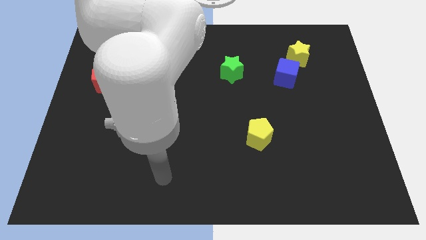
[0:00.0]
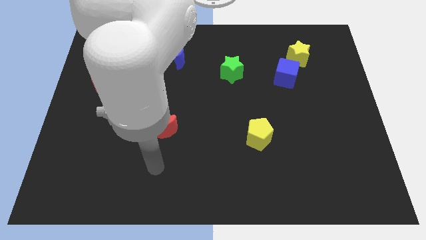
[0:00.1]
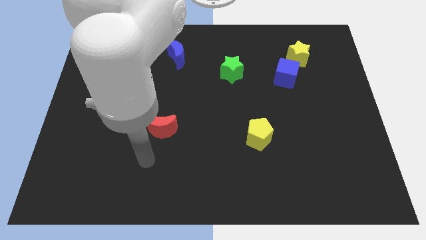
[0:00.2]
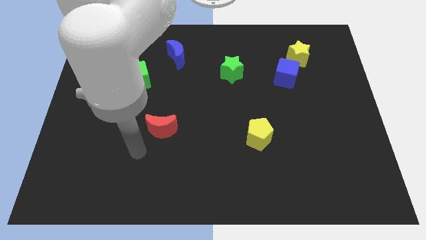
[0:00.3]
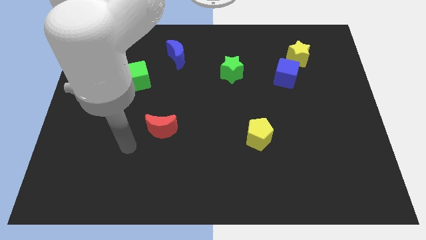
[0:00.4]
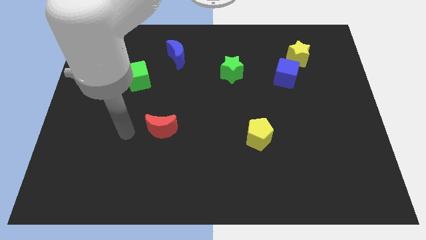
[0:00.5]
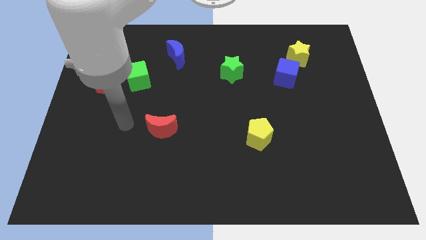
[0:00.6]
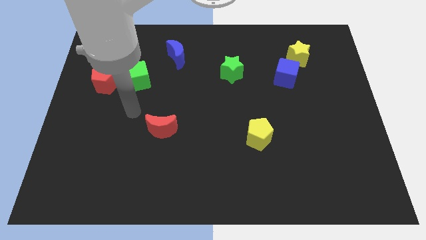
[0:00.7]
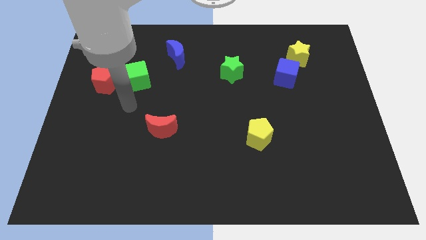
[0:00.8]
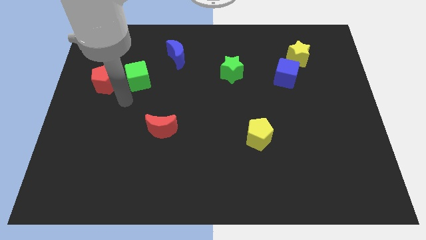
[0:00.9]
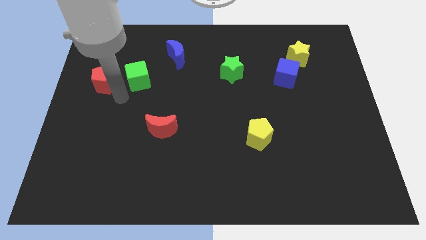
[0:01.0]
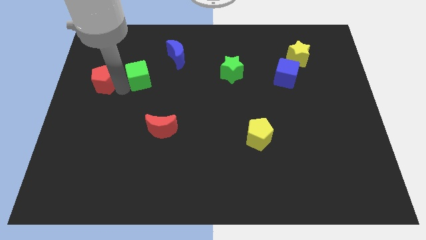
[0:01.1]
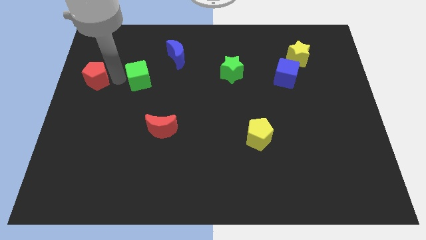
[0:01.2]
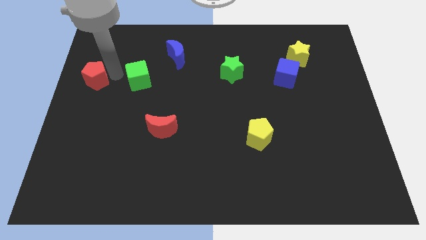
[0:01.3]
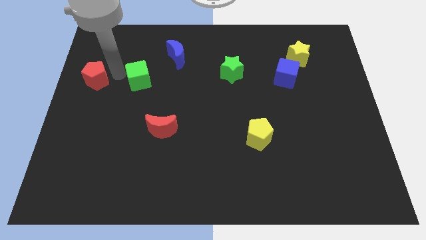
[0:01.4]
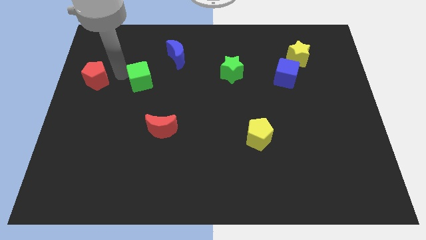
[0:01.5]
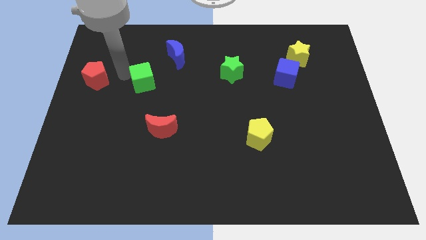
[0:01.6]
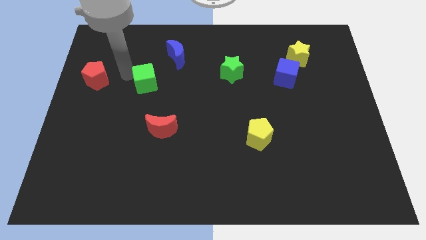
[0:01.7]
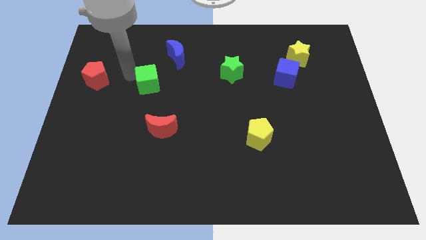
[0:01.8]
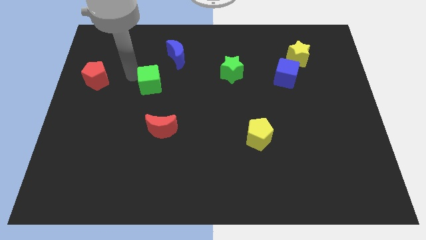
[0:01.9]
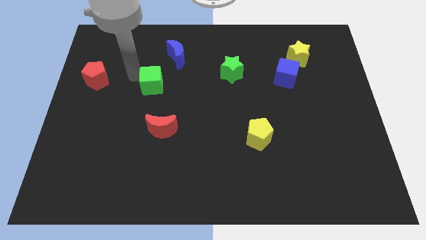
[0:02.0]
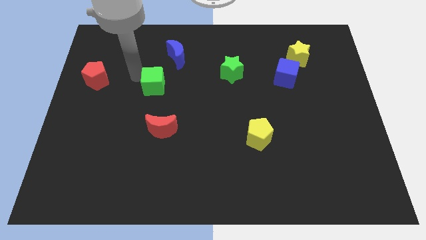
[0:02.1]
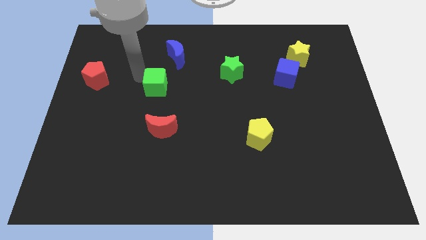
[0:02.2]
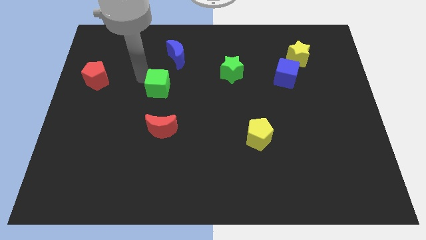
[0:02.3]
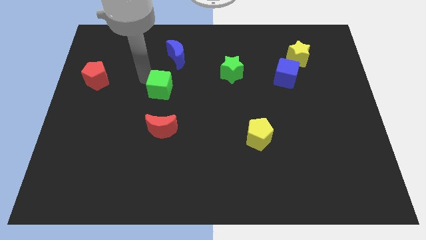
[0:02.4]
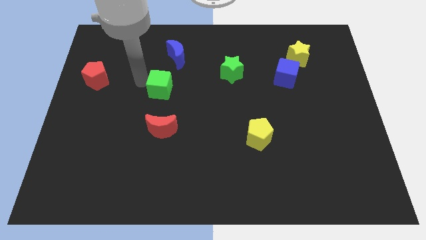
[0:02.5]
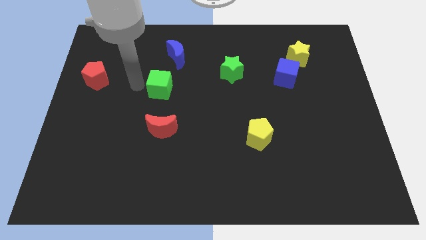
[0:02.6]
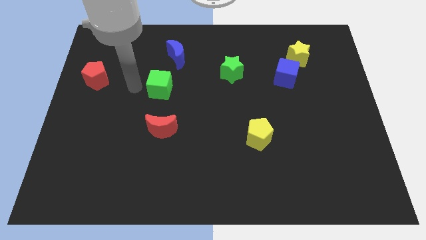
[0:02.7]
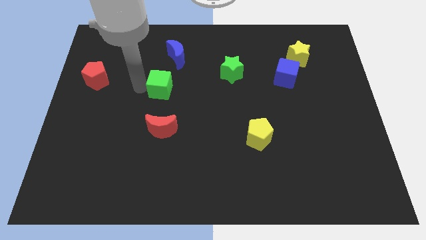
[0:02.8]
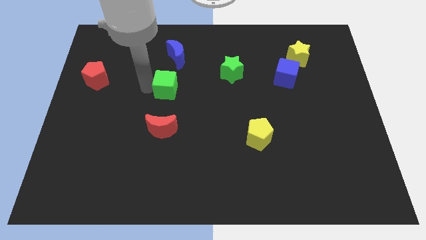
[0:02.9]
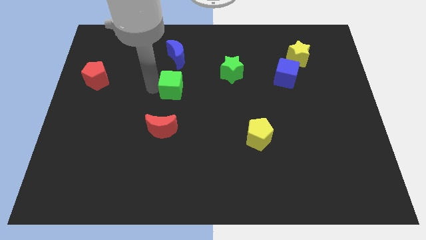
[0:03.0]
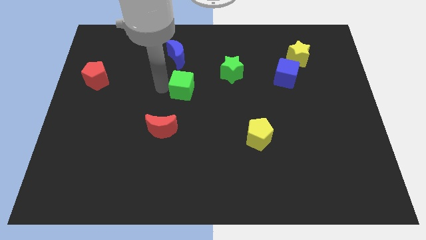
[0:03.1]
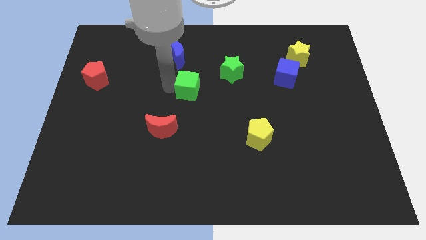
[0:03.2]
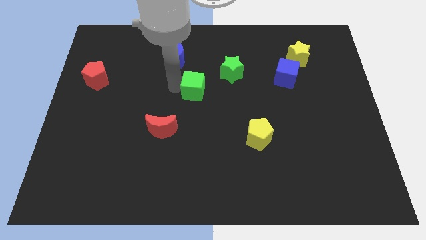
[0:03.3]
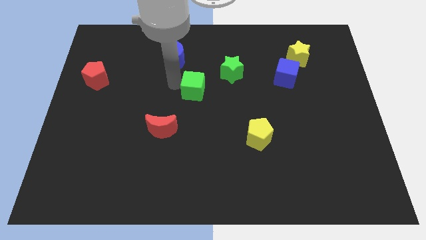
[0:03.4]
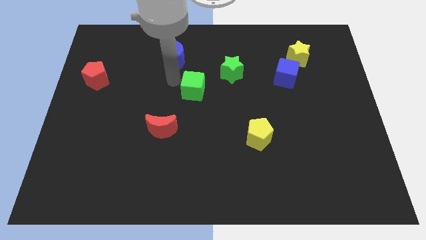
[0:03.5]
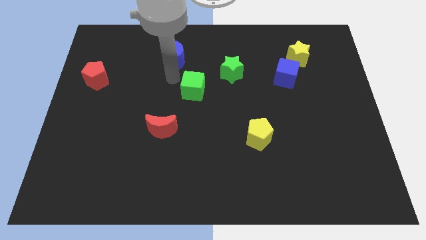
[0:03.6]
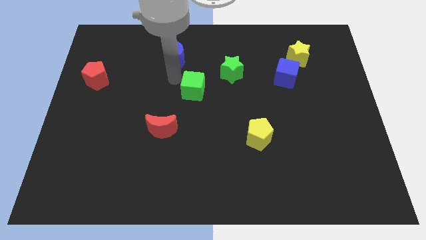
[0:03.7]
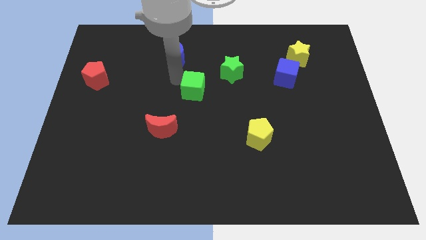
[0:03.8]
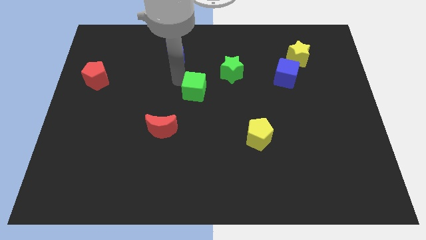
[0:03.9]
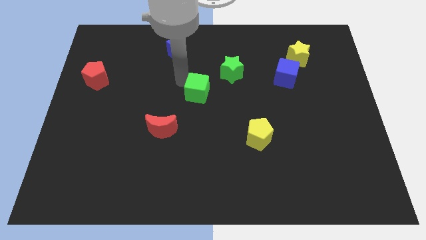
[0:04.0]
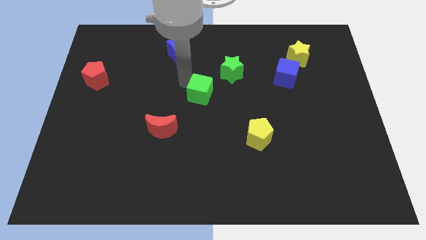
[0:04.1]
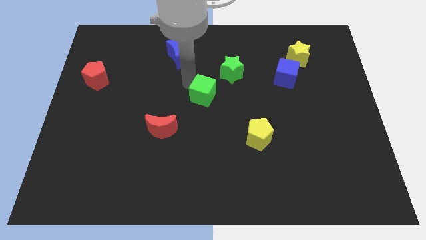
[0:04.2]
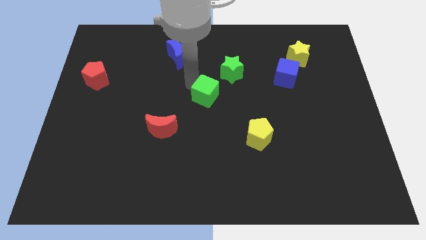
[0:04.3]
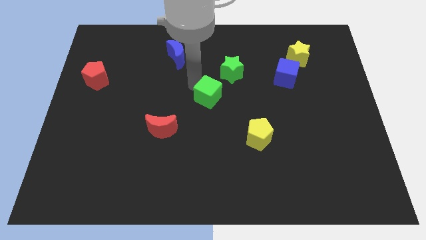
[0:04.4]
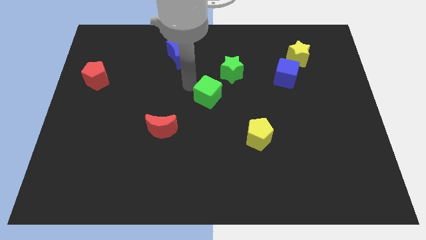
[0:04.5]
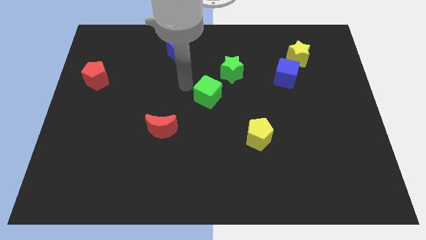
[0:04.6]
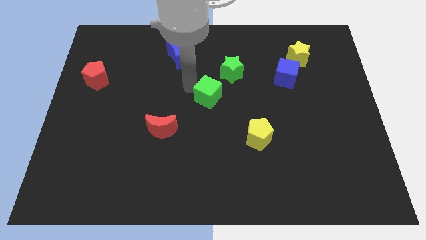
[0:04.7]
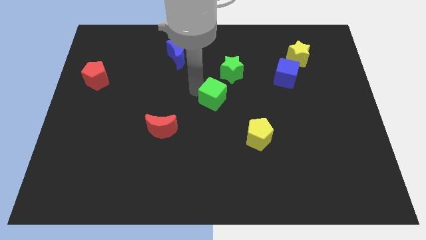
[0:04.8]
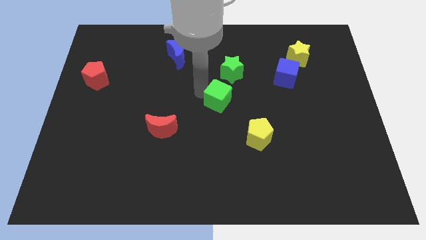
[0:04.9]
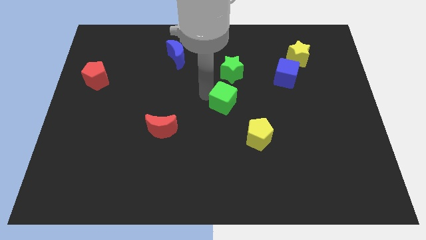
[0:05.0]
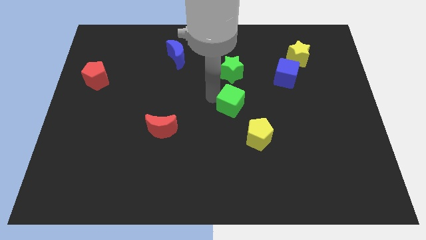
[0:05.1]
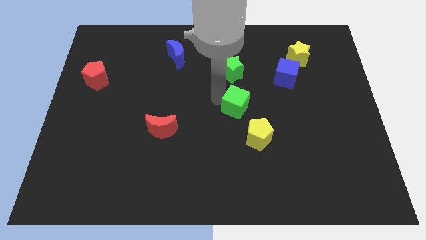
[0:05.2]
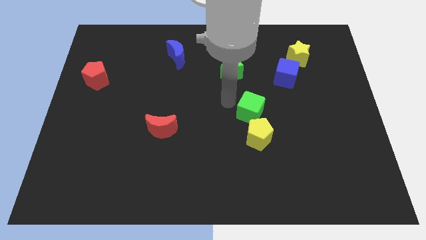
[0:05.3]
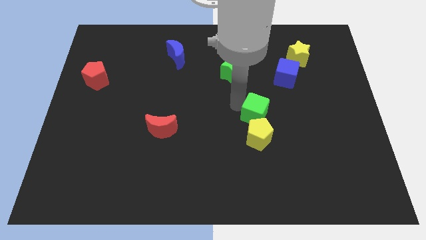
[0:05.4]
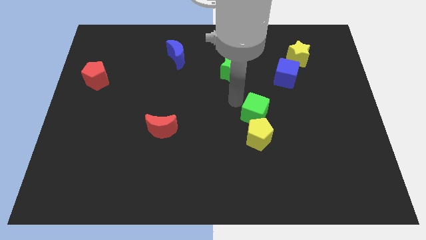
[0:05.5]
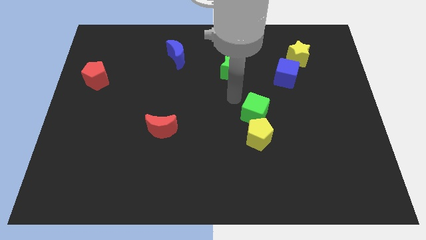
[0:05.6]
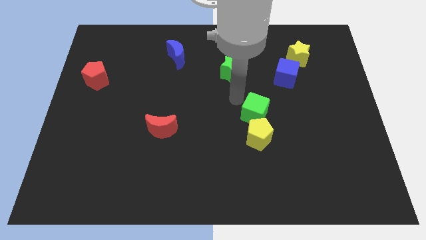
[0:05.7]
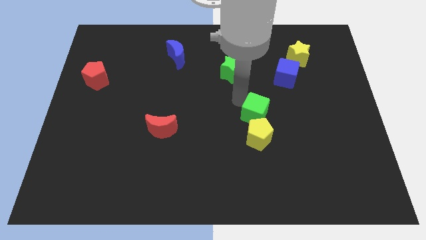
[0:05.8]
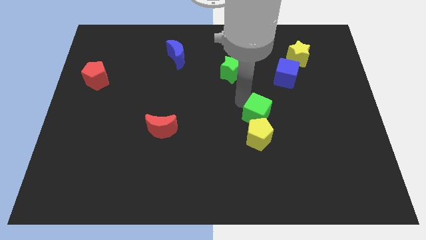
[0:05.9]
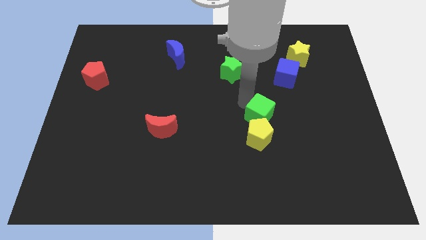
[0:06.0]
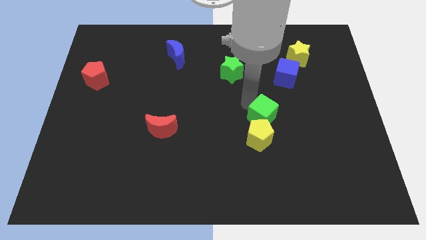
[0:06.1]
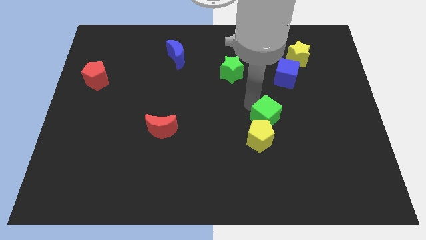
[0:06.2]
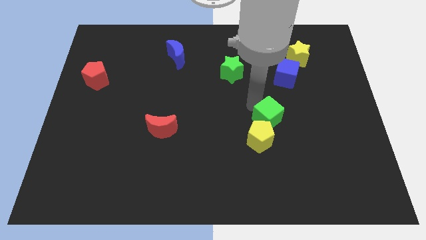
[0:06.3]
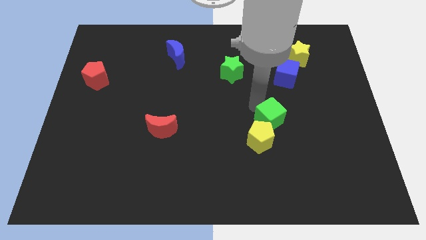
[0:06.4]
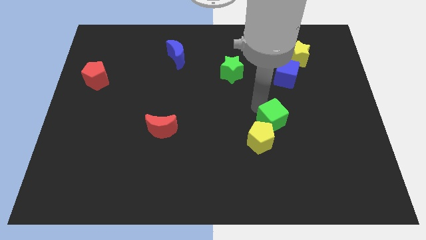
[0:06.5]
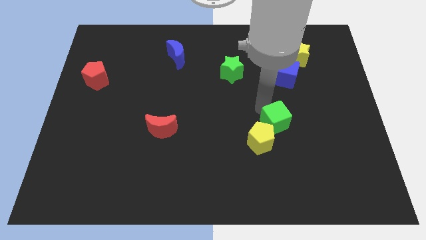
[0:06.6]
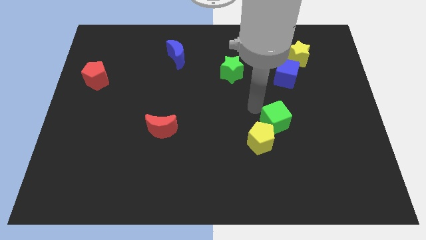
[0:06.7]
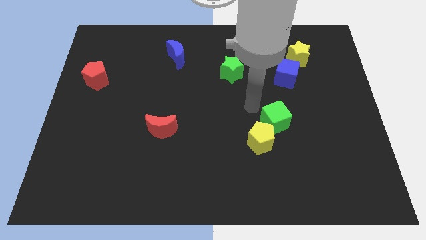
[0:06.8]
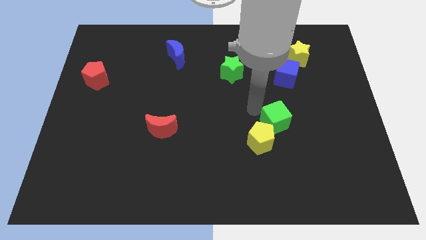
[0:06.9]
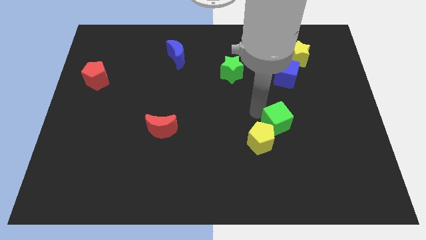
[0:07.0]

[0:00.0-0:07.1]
put the green cube to the right of the yellow pentagon

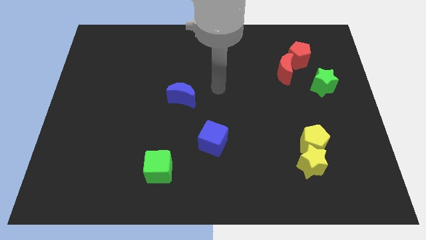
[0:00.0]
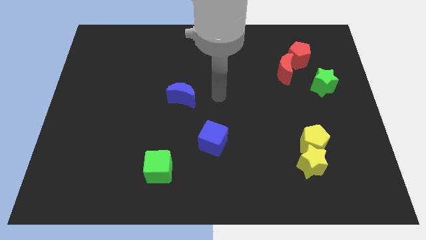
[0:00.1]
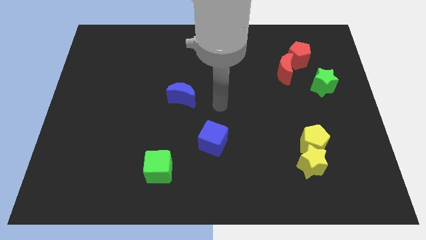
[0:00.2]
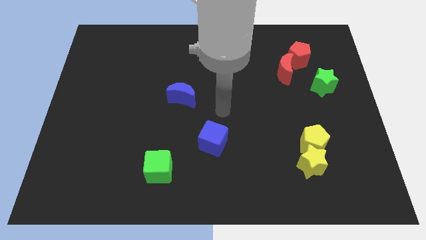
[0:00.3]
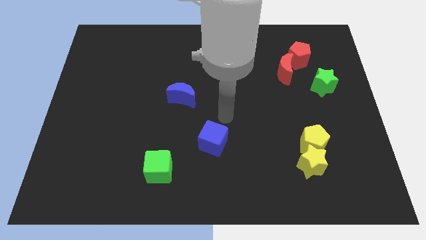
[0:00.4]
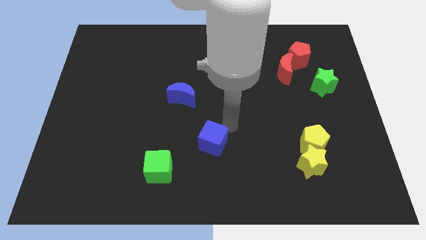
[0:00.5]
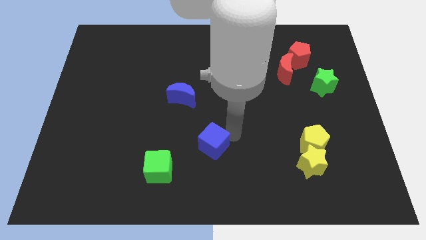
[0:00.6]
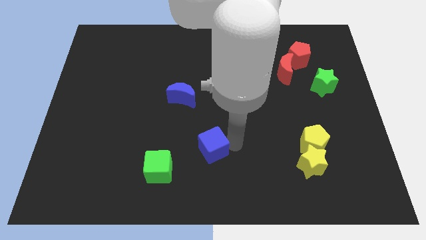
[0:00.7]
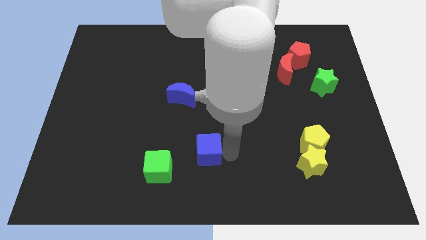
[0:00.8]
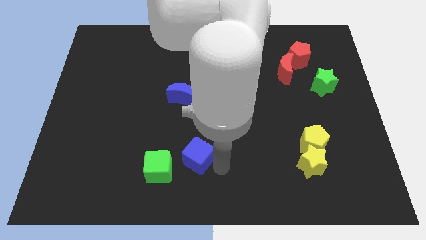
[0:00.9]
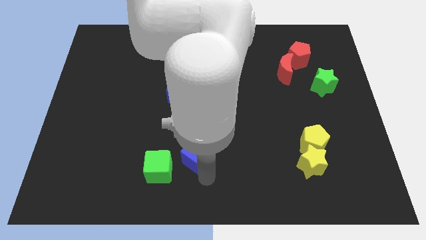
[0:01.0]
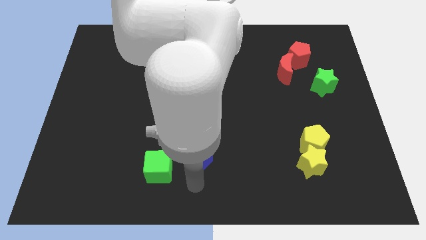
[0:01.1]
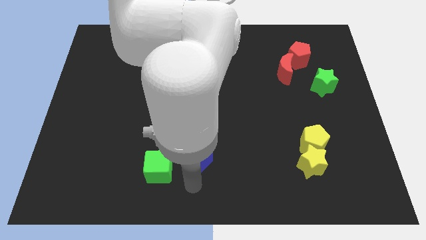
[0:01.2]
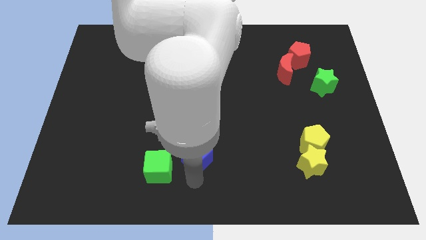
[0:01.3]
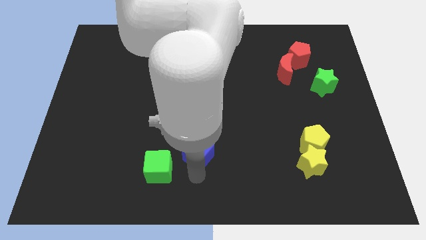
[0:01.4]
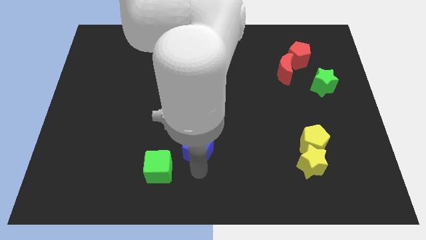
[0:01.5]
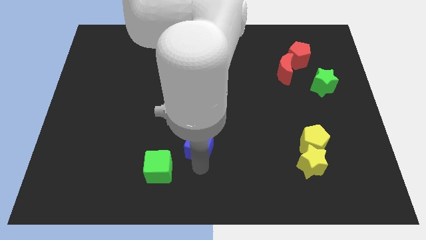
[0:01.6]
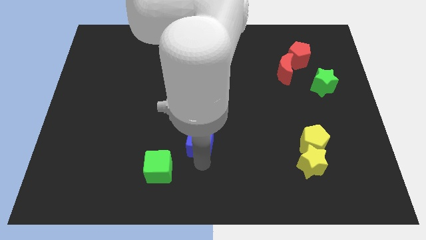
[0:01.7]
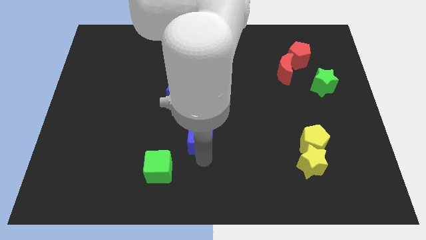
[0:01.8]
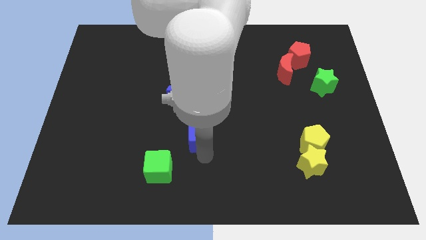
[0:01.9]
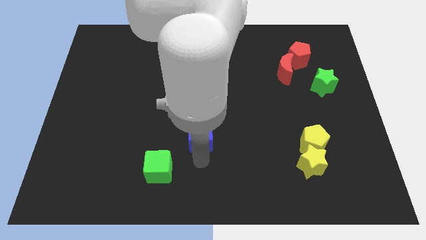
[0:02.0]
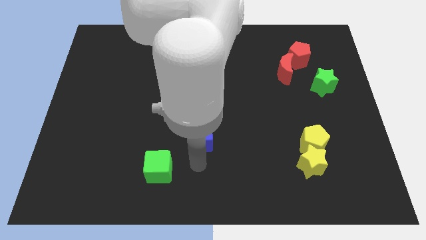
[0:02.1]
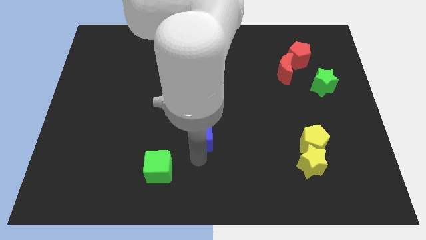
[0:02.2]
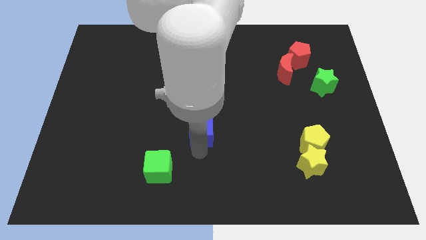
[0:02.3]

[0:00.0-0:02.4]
push the blue cube diagonally down and to the right of the blue moon
